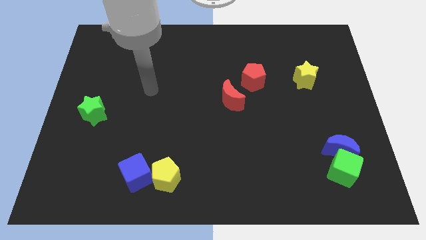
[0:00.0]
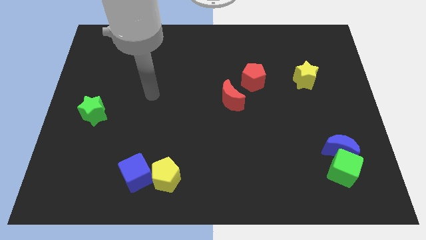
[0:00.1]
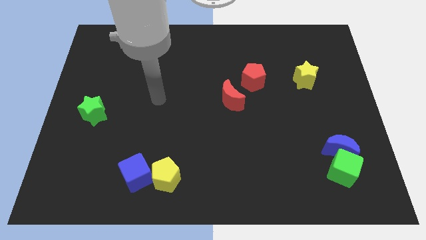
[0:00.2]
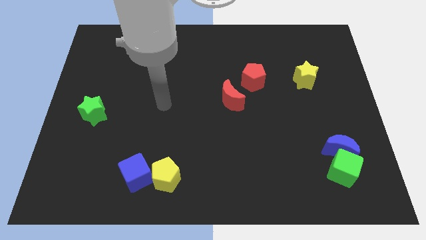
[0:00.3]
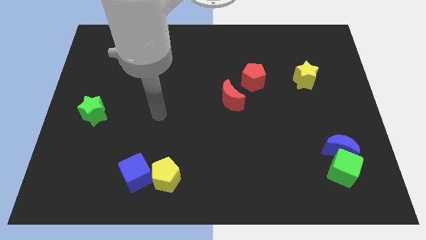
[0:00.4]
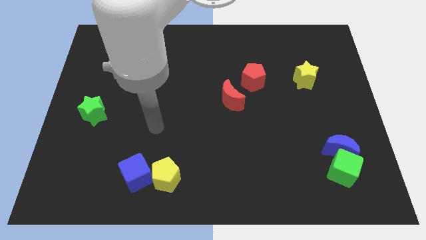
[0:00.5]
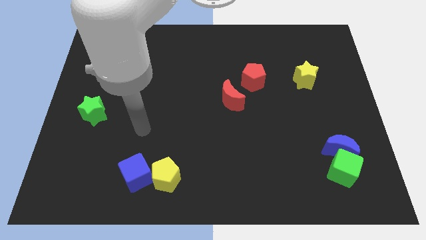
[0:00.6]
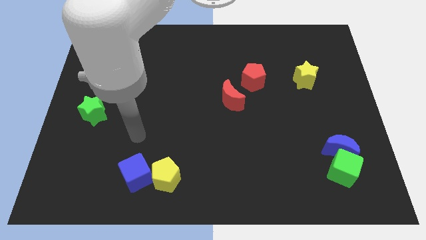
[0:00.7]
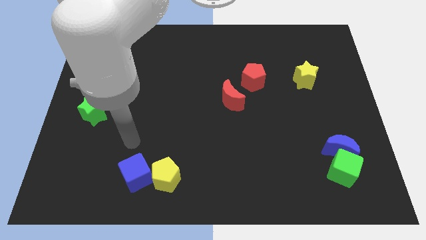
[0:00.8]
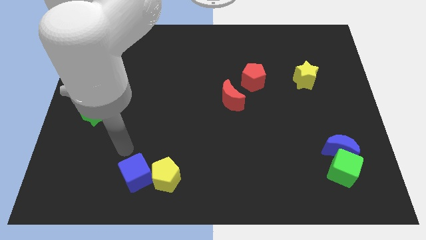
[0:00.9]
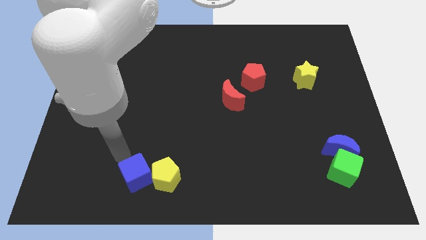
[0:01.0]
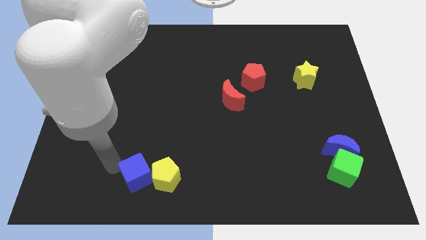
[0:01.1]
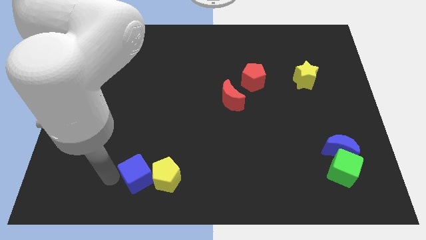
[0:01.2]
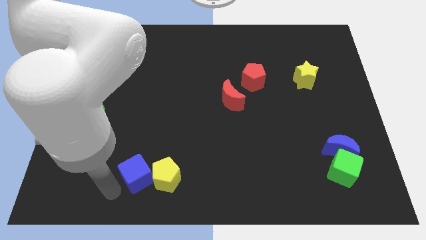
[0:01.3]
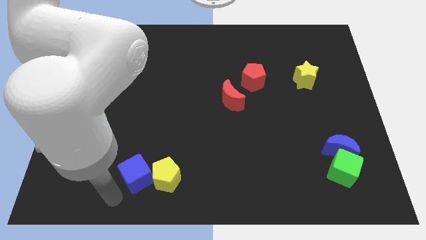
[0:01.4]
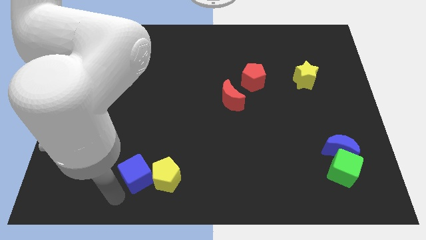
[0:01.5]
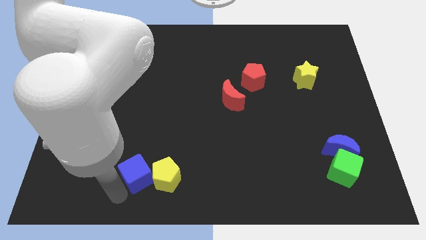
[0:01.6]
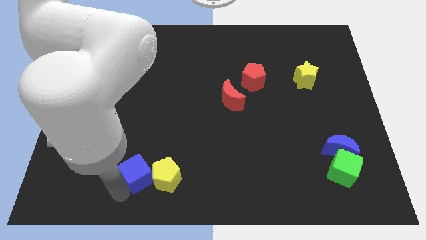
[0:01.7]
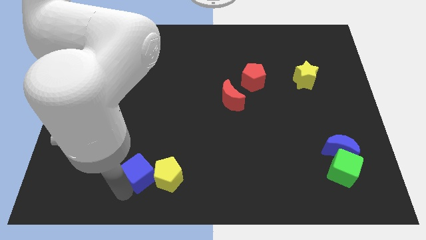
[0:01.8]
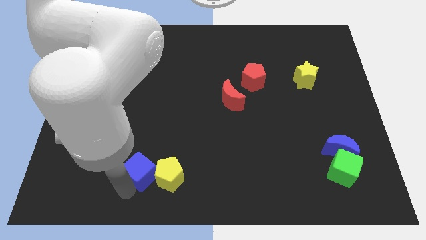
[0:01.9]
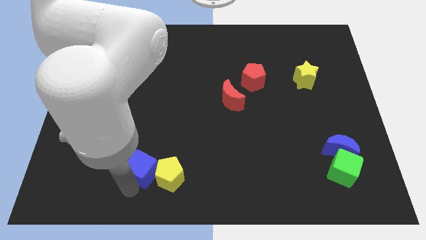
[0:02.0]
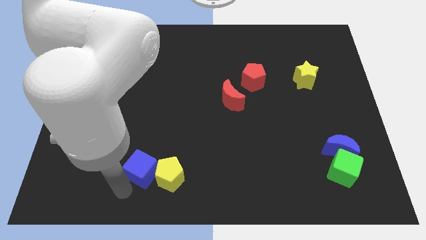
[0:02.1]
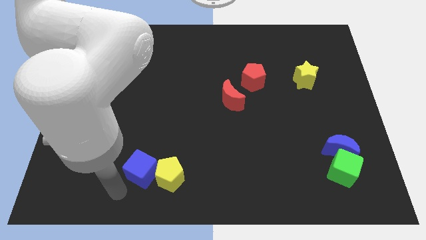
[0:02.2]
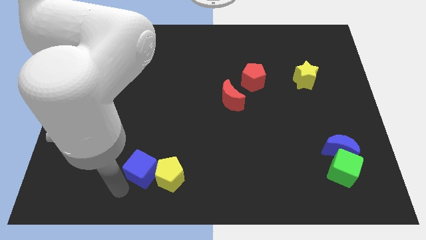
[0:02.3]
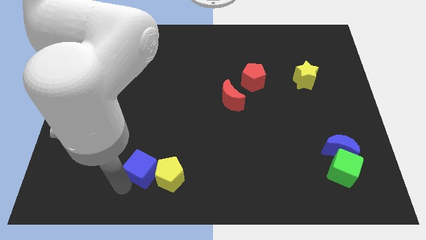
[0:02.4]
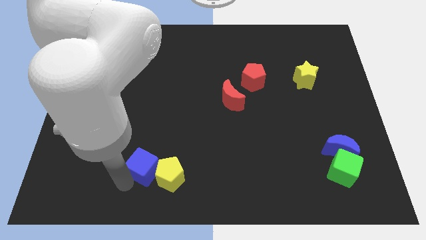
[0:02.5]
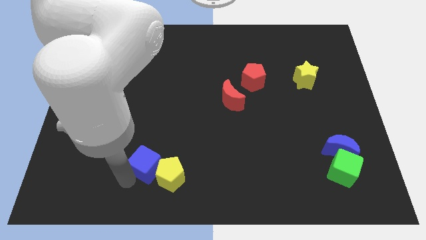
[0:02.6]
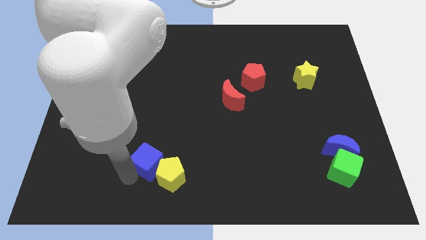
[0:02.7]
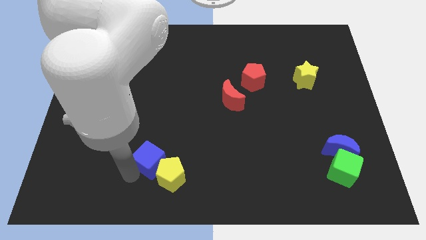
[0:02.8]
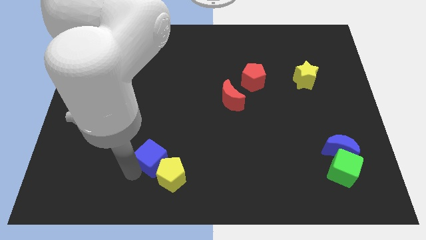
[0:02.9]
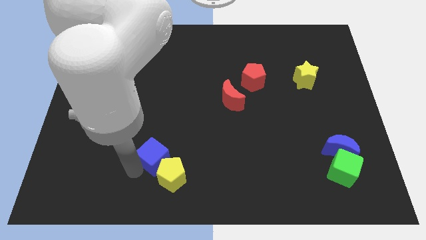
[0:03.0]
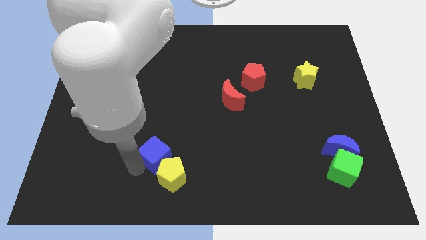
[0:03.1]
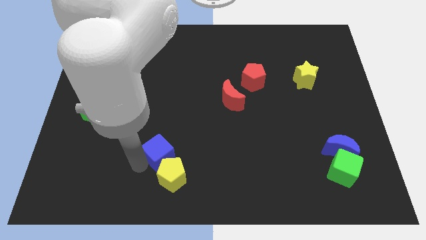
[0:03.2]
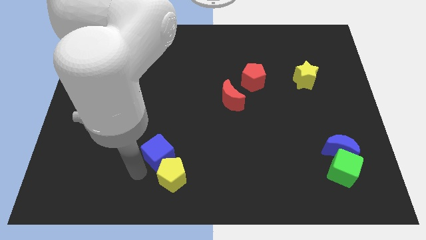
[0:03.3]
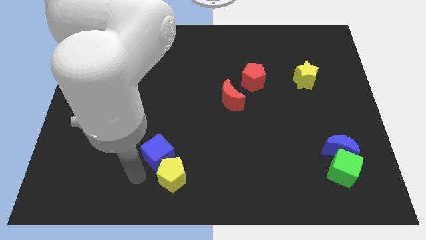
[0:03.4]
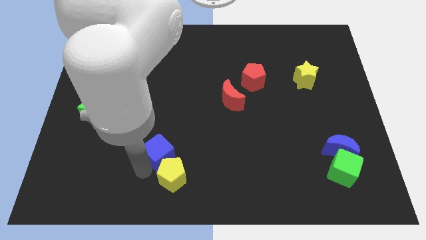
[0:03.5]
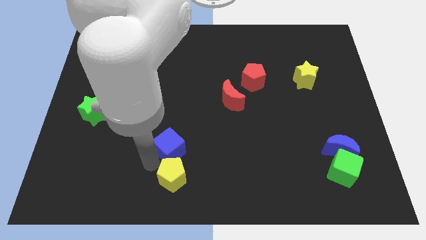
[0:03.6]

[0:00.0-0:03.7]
slide the blue cube slightly upwards and then to the right

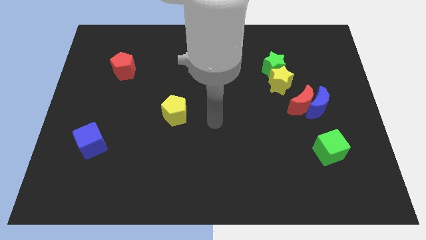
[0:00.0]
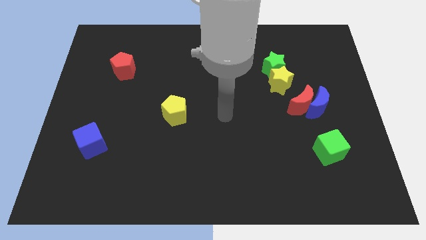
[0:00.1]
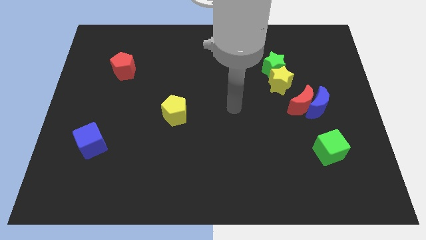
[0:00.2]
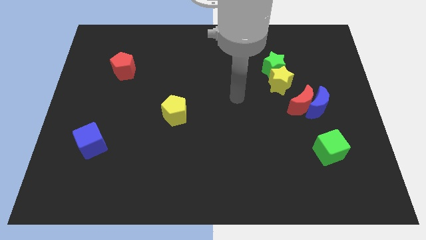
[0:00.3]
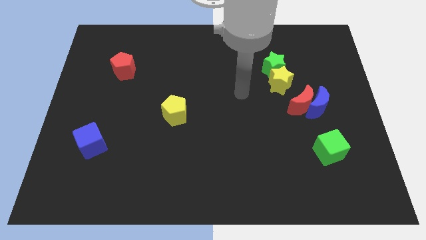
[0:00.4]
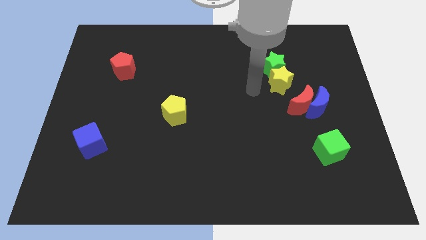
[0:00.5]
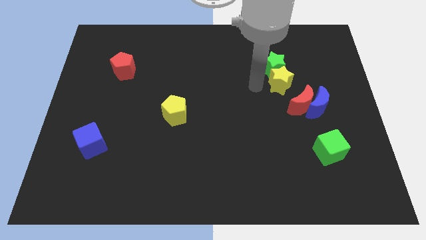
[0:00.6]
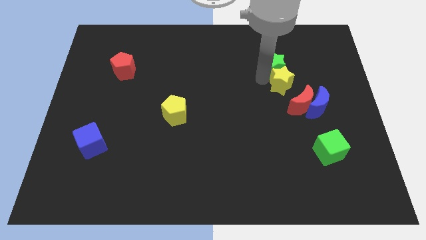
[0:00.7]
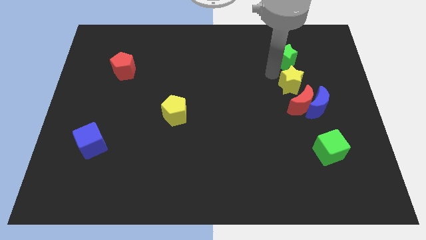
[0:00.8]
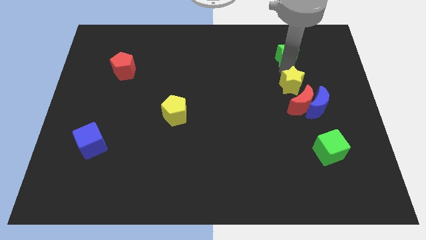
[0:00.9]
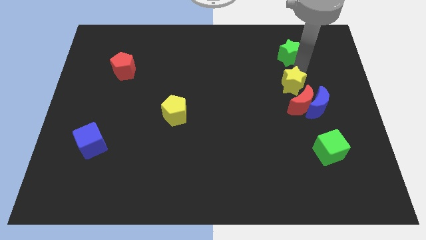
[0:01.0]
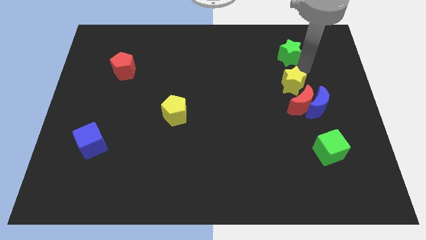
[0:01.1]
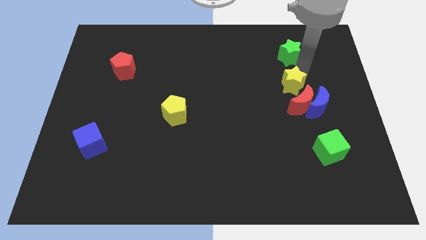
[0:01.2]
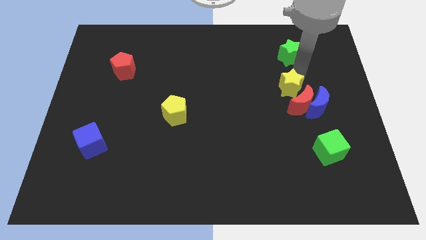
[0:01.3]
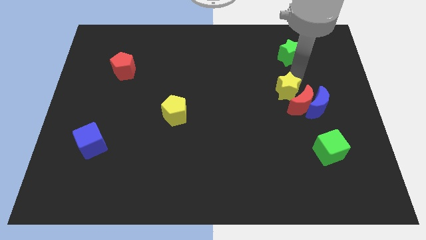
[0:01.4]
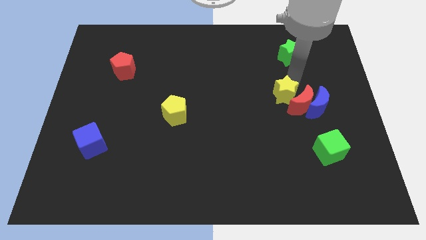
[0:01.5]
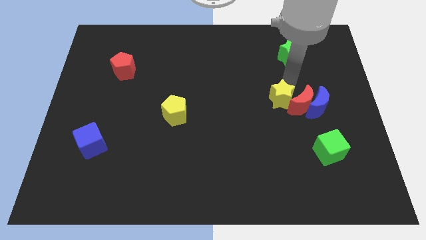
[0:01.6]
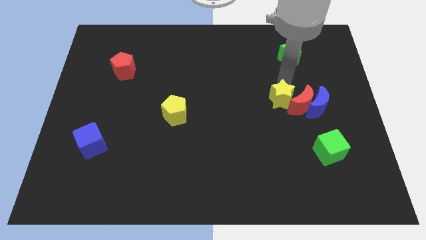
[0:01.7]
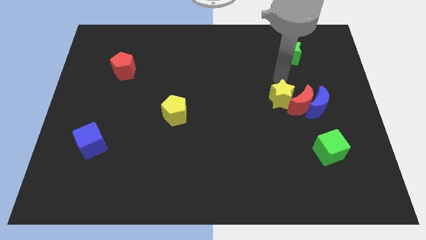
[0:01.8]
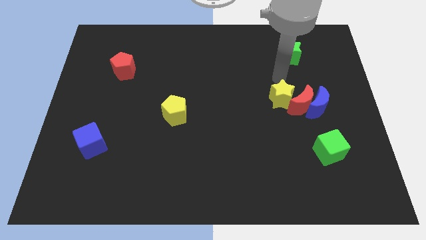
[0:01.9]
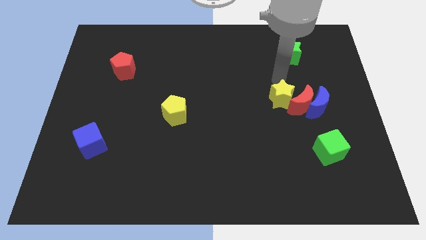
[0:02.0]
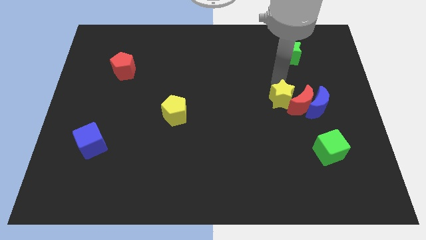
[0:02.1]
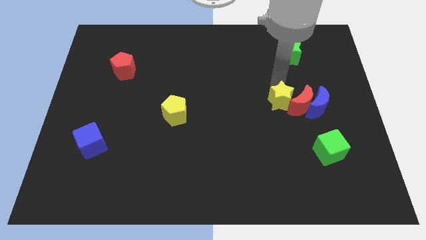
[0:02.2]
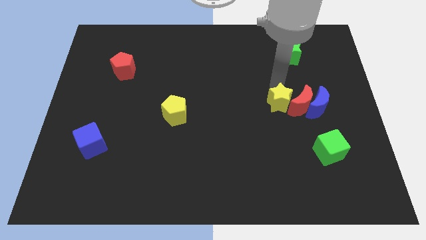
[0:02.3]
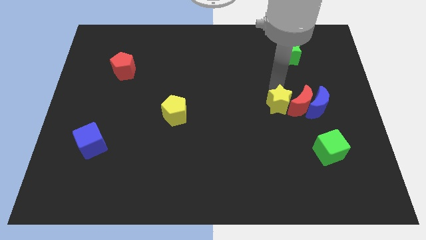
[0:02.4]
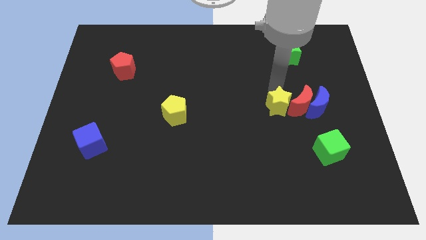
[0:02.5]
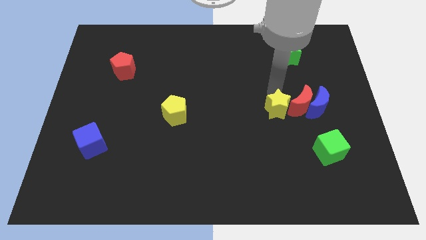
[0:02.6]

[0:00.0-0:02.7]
slightly push the yellow star downwards

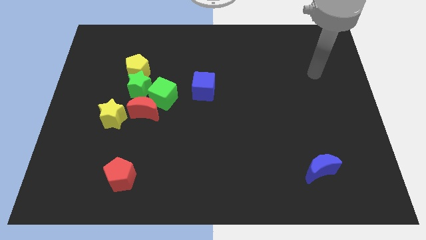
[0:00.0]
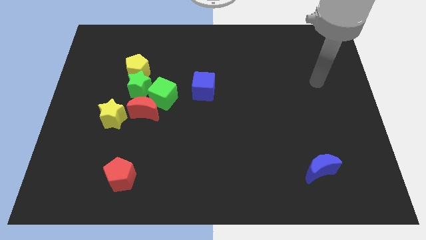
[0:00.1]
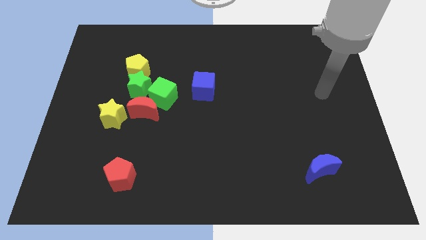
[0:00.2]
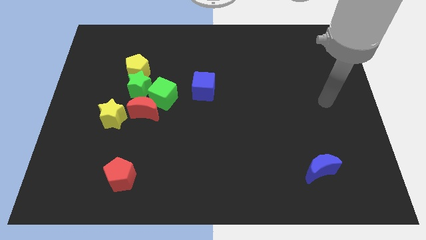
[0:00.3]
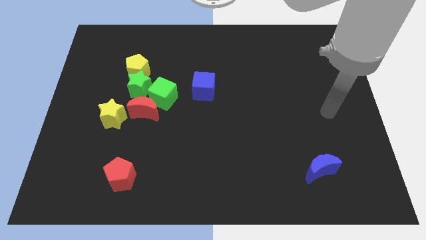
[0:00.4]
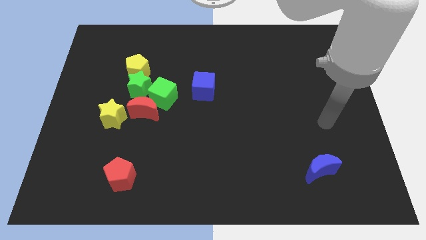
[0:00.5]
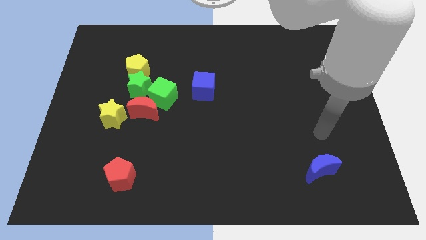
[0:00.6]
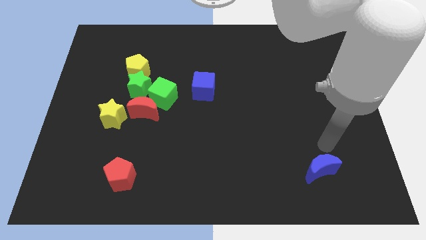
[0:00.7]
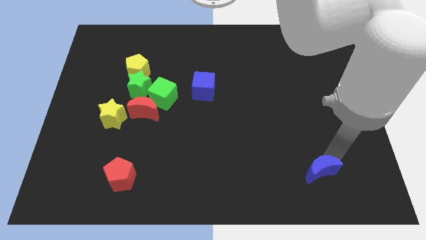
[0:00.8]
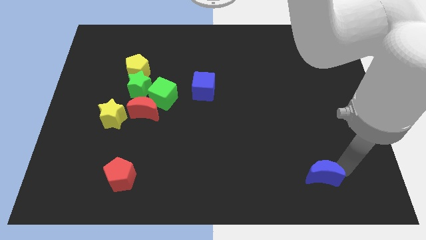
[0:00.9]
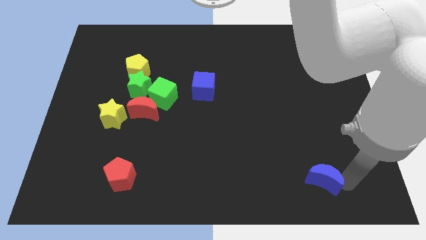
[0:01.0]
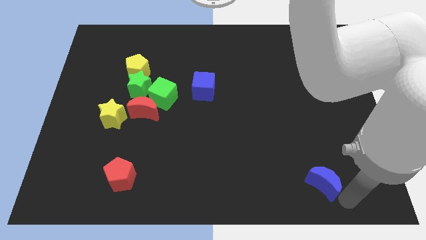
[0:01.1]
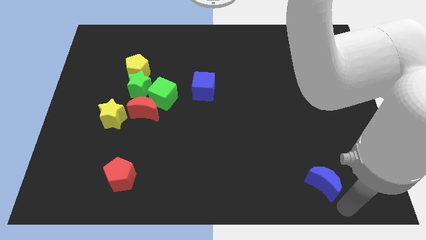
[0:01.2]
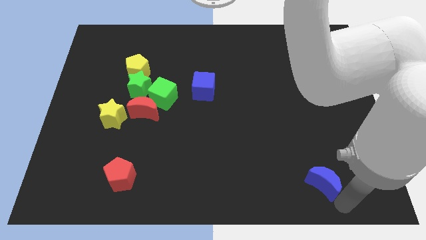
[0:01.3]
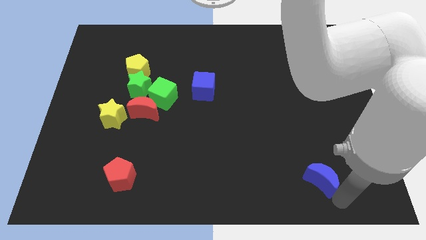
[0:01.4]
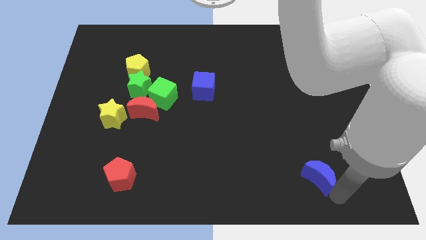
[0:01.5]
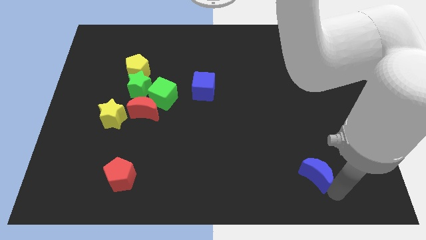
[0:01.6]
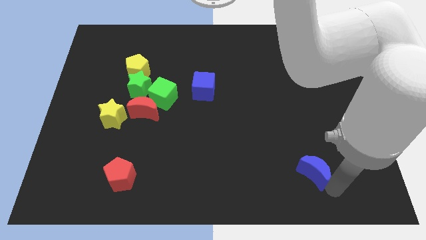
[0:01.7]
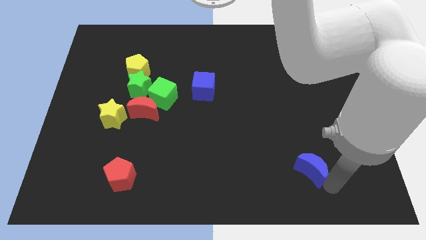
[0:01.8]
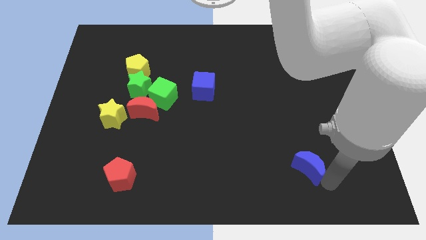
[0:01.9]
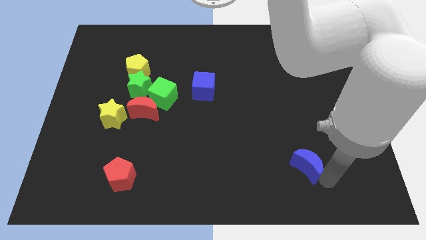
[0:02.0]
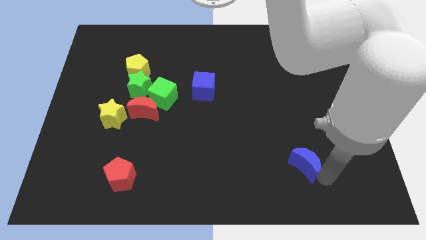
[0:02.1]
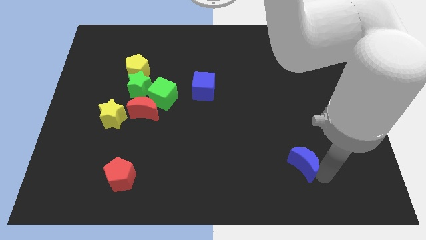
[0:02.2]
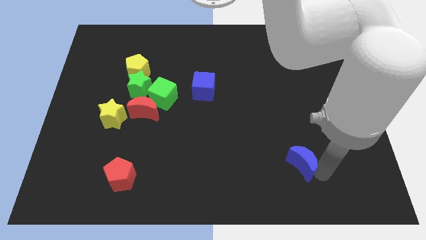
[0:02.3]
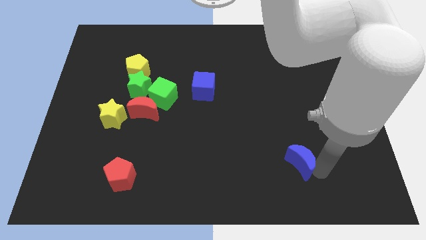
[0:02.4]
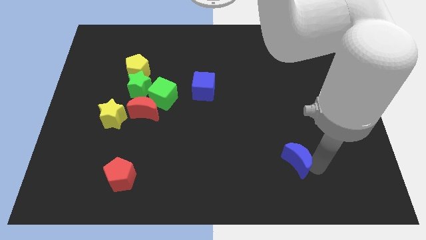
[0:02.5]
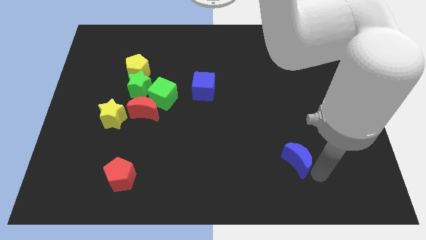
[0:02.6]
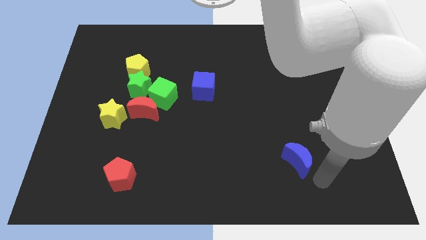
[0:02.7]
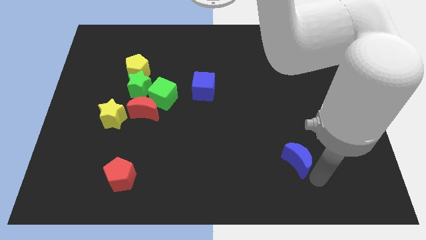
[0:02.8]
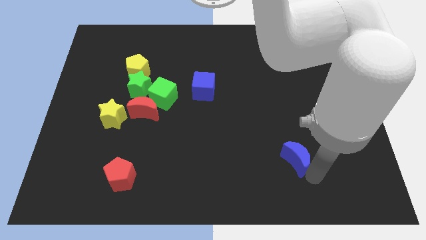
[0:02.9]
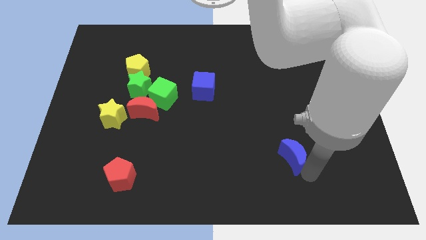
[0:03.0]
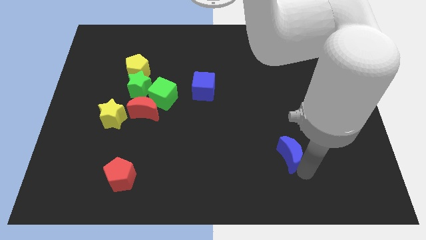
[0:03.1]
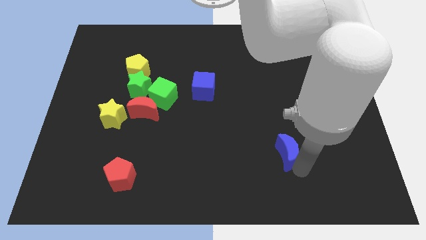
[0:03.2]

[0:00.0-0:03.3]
slightly push the blue moon up and then left
